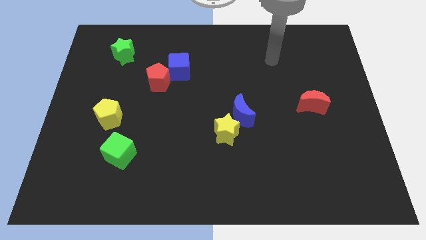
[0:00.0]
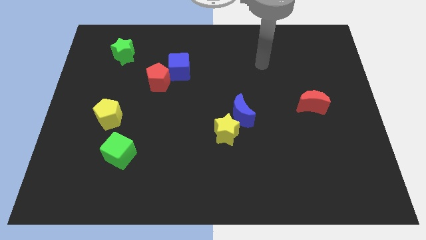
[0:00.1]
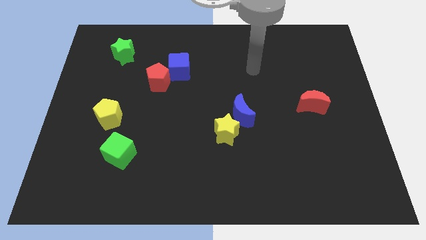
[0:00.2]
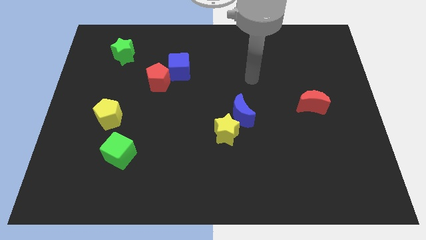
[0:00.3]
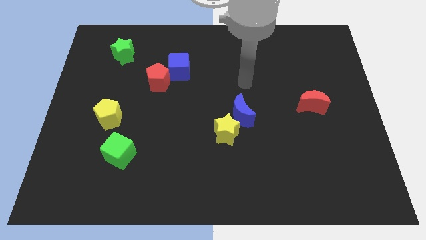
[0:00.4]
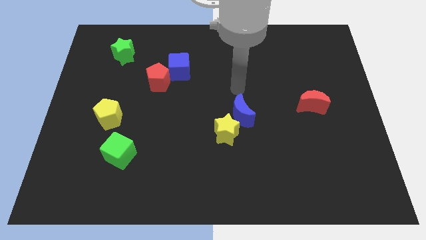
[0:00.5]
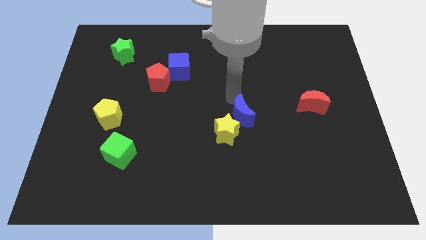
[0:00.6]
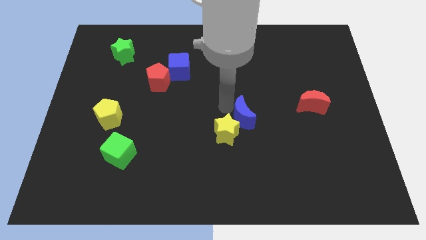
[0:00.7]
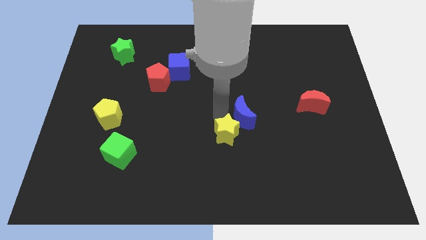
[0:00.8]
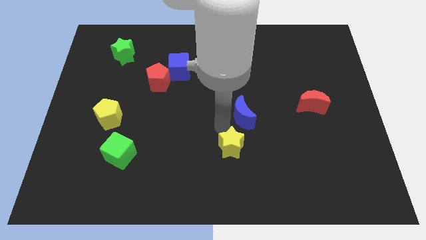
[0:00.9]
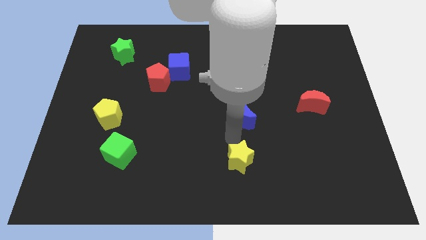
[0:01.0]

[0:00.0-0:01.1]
separate the blue moon from the yellow star

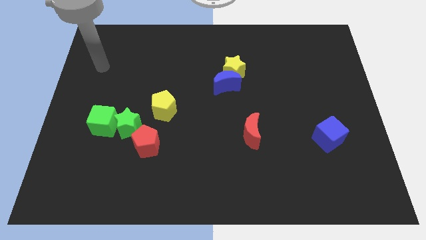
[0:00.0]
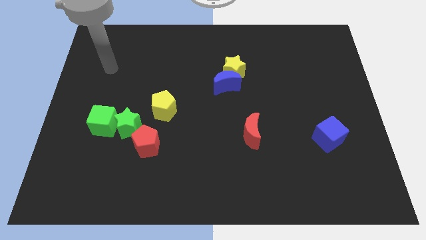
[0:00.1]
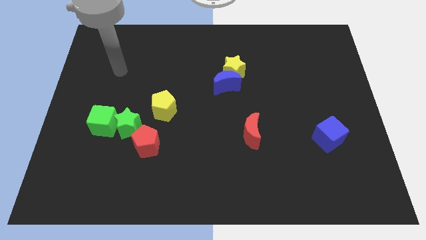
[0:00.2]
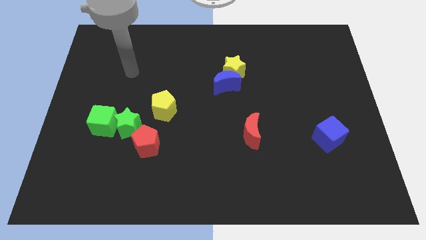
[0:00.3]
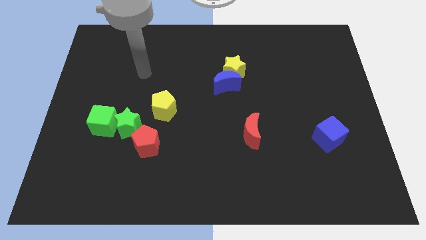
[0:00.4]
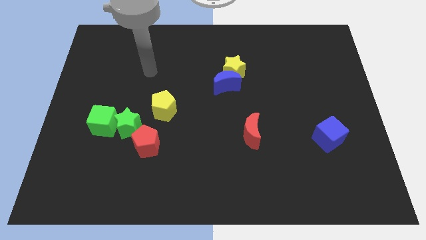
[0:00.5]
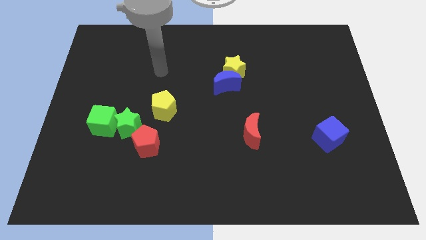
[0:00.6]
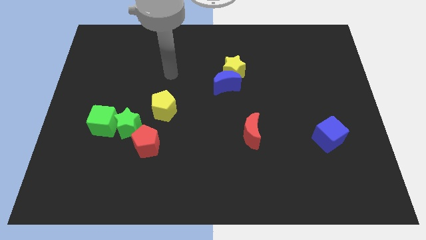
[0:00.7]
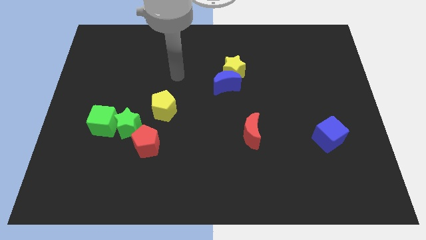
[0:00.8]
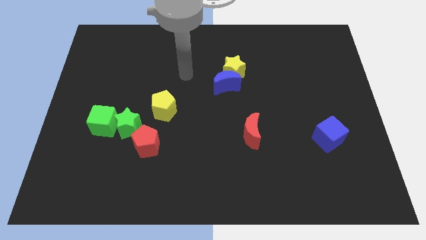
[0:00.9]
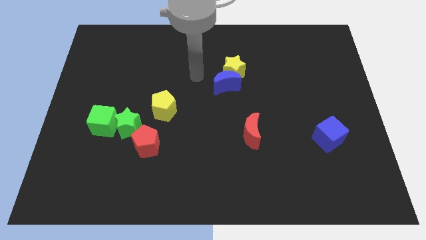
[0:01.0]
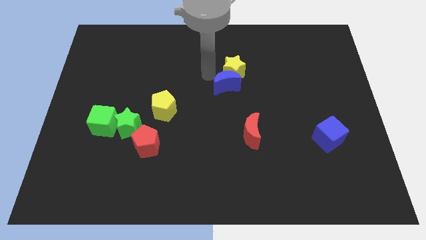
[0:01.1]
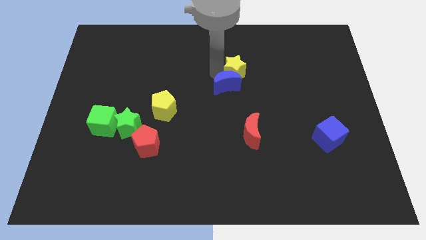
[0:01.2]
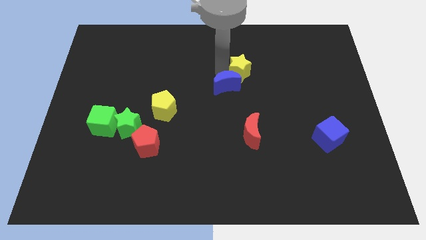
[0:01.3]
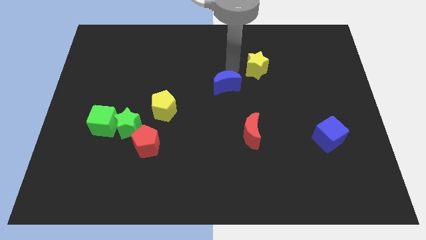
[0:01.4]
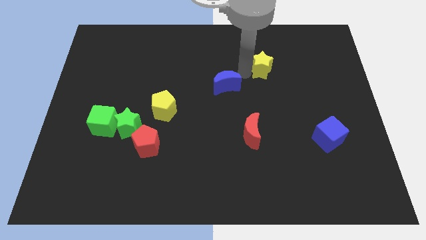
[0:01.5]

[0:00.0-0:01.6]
move the blue moon away from the yellow star

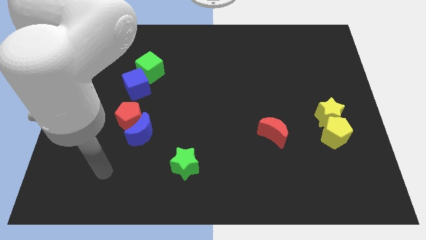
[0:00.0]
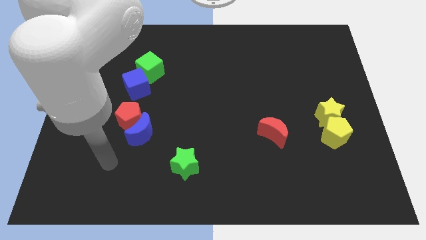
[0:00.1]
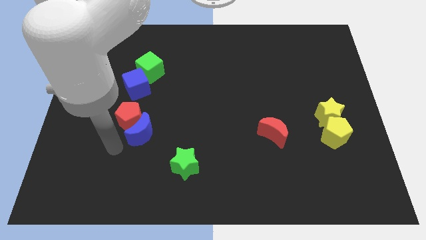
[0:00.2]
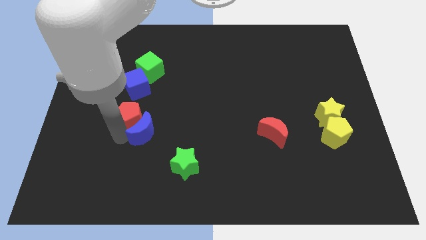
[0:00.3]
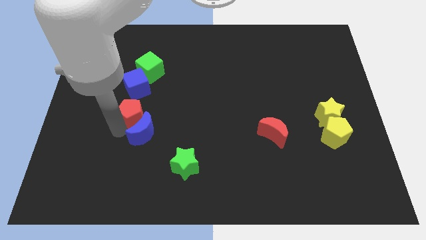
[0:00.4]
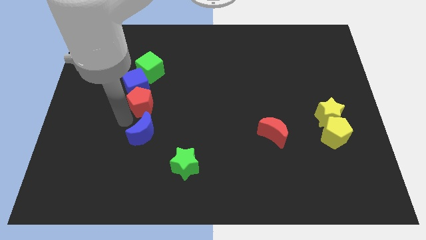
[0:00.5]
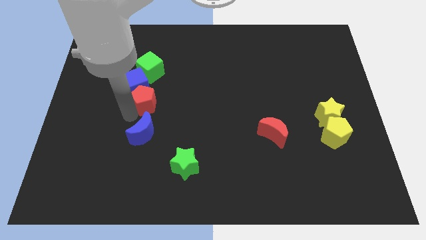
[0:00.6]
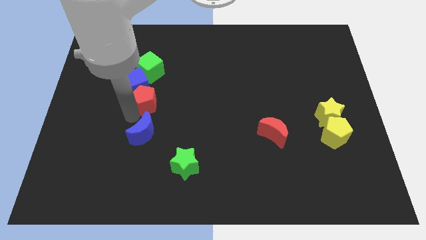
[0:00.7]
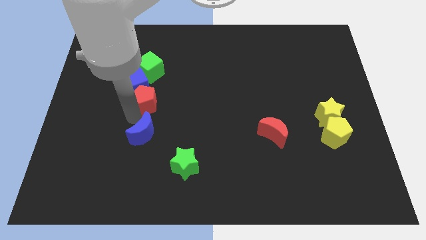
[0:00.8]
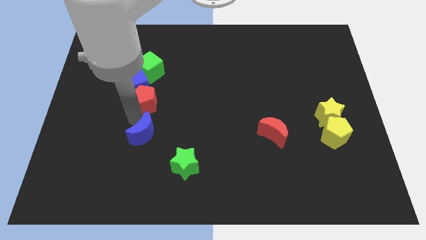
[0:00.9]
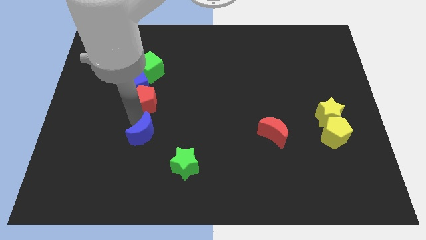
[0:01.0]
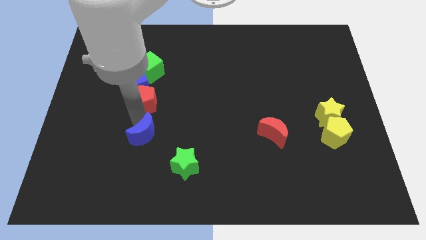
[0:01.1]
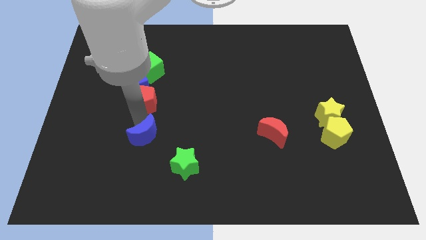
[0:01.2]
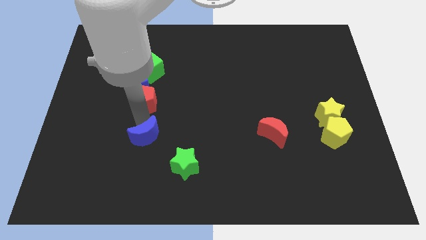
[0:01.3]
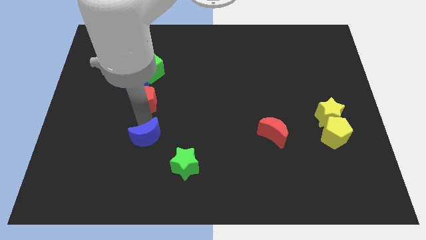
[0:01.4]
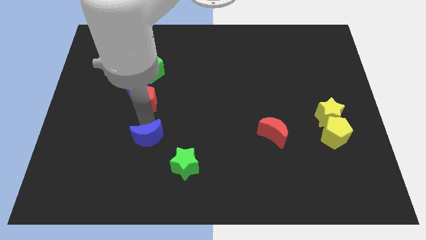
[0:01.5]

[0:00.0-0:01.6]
move the blue moon away from the red pentagon

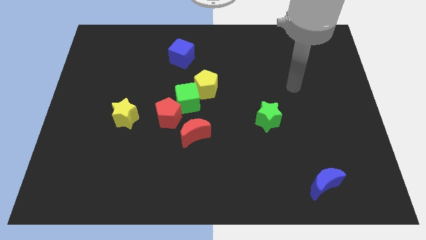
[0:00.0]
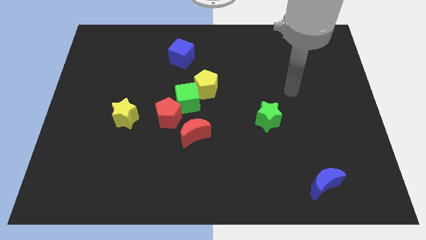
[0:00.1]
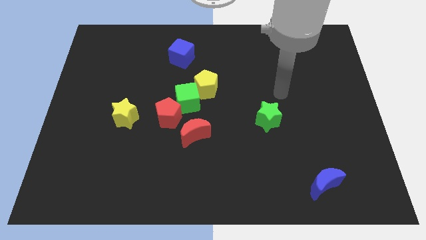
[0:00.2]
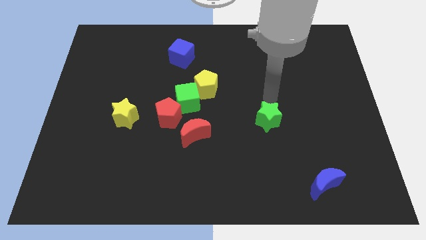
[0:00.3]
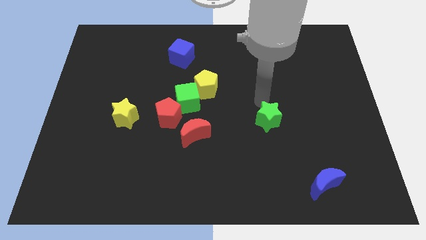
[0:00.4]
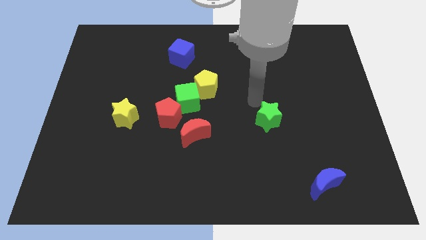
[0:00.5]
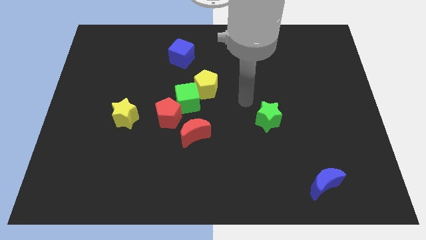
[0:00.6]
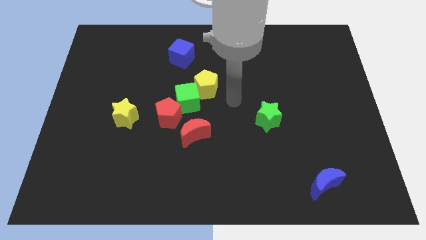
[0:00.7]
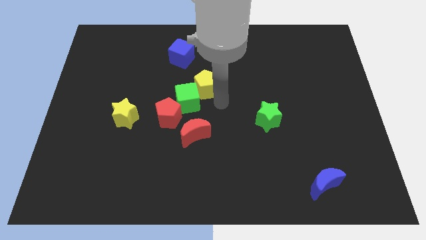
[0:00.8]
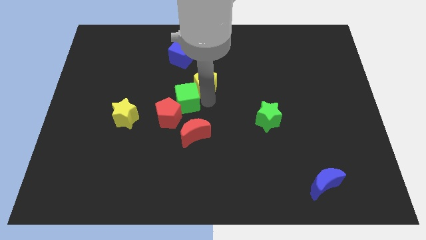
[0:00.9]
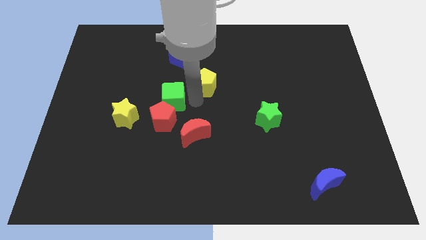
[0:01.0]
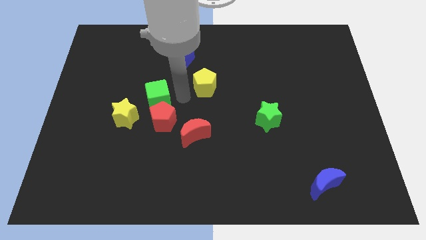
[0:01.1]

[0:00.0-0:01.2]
separate the yellow pentagon from the green cube

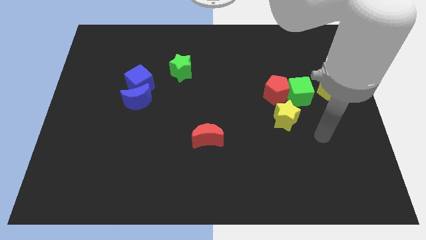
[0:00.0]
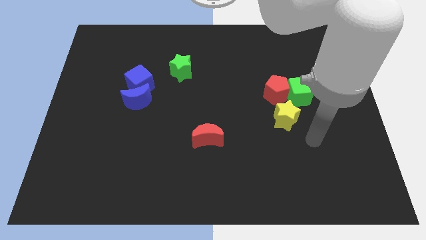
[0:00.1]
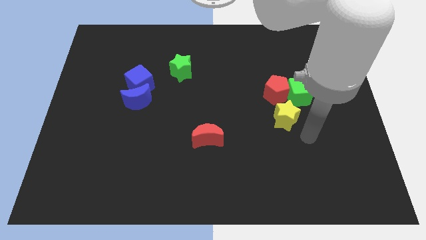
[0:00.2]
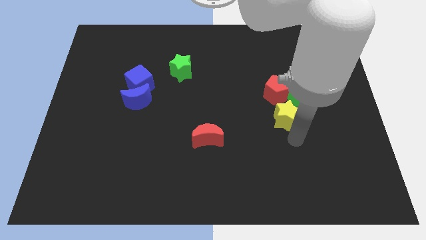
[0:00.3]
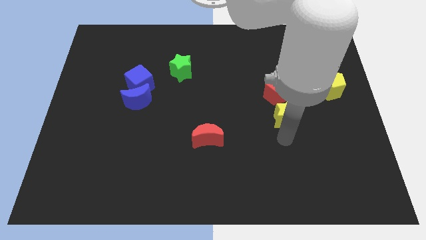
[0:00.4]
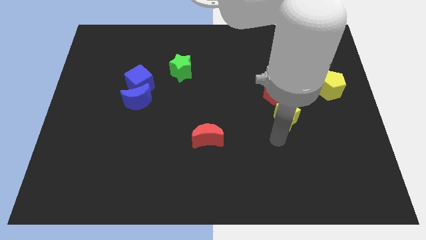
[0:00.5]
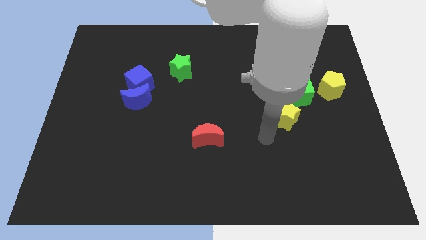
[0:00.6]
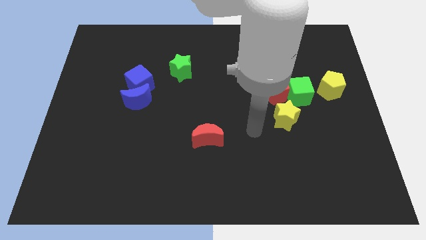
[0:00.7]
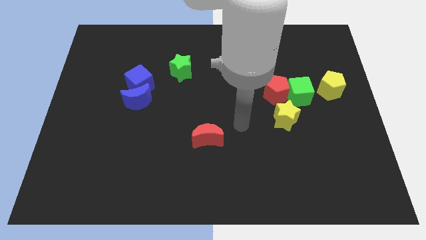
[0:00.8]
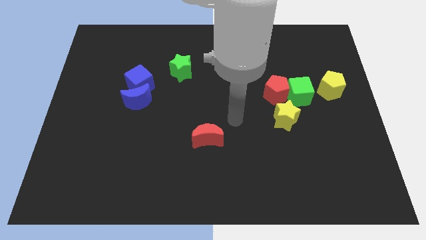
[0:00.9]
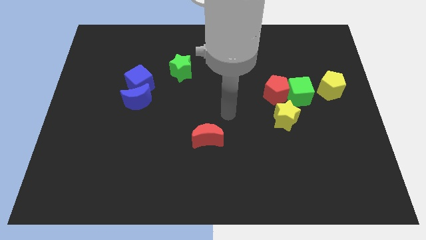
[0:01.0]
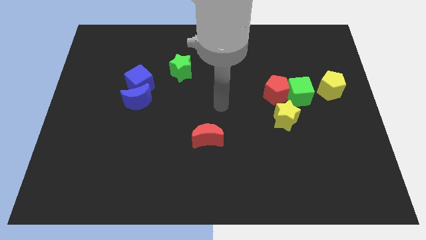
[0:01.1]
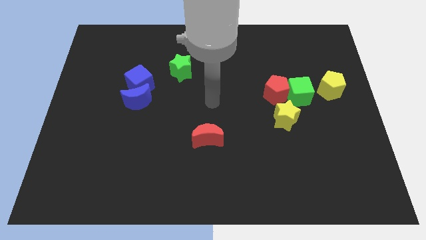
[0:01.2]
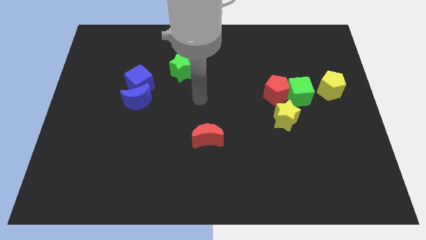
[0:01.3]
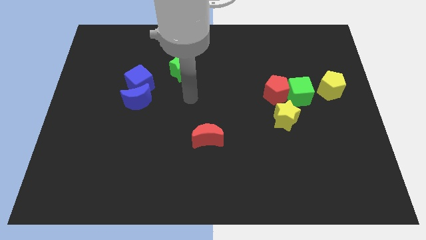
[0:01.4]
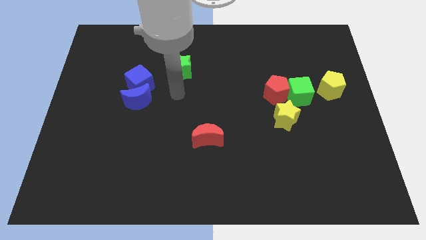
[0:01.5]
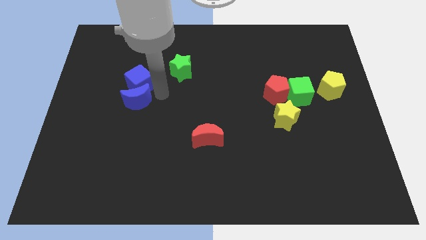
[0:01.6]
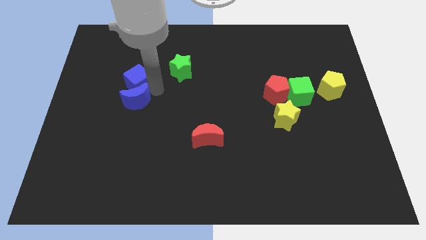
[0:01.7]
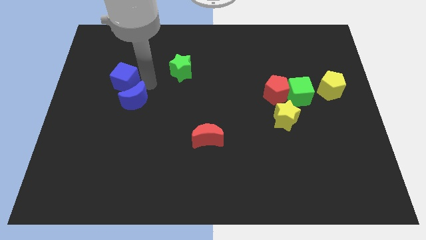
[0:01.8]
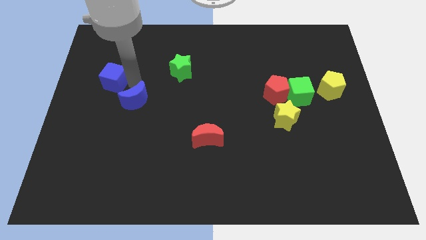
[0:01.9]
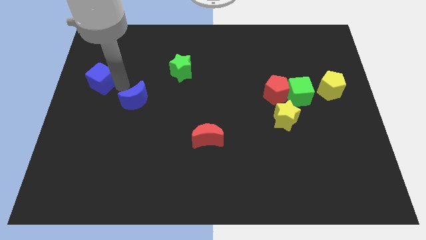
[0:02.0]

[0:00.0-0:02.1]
pull the blue moon apart from the blue cube

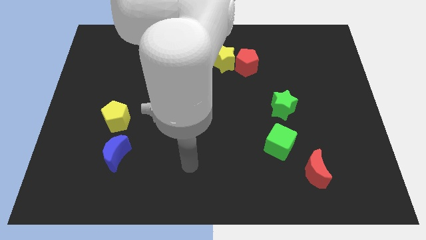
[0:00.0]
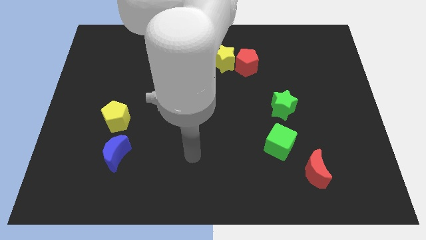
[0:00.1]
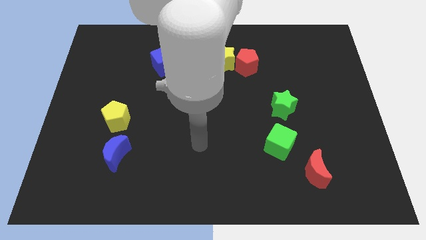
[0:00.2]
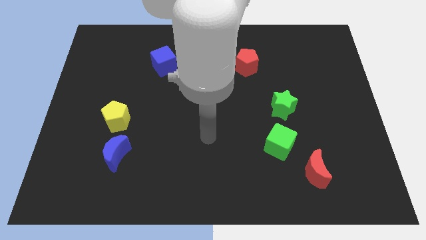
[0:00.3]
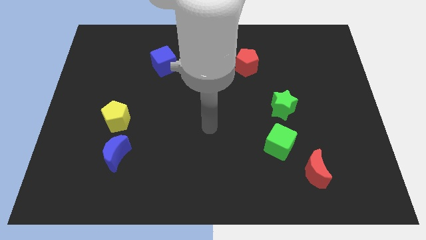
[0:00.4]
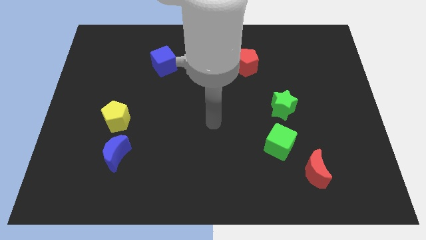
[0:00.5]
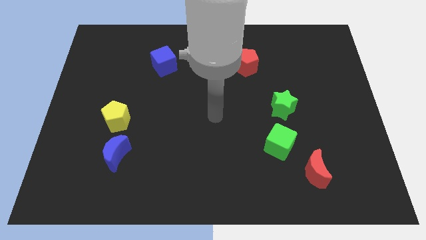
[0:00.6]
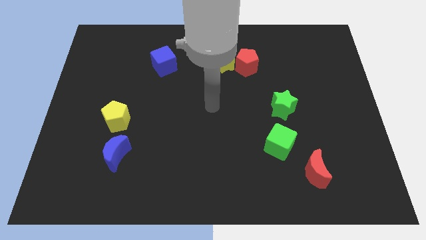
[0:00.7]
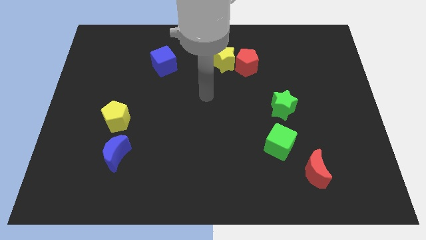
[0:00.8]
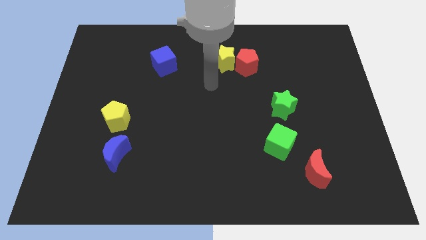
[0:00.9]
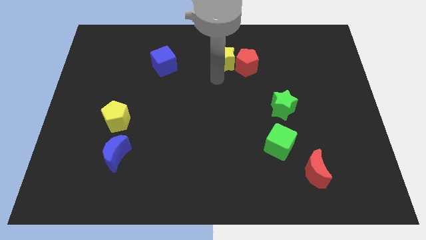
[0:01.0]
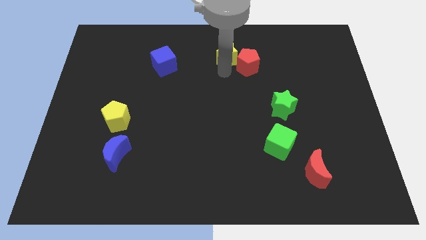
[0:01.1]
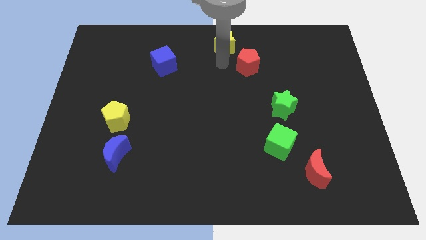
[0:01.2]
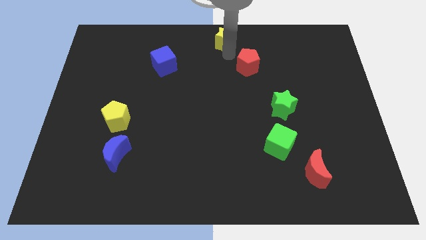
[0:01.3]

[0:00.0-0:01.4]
move the red pentagon away from the yellow star

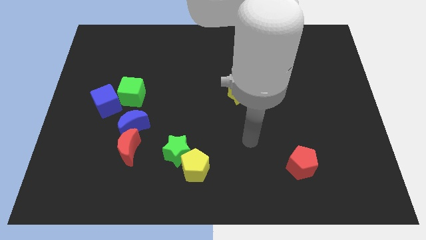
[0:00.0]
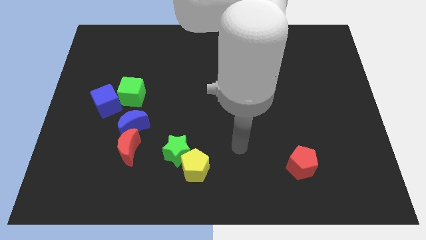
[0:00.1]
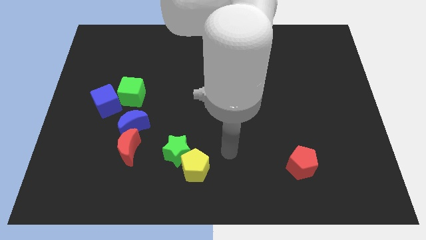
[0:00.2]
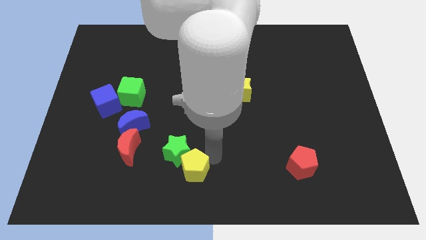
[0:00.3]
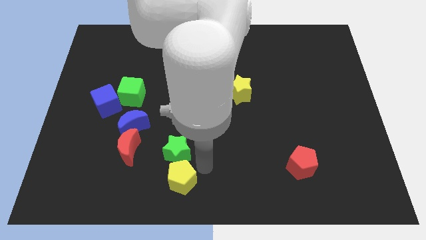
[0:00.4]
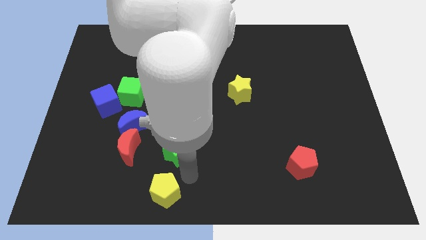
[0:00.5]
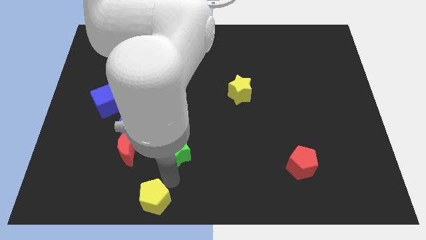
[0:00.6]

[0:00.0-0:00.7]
move the green star away from the yellow pentagon
